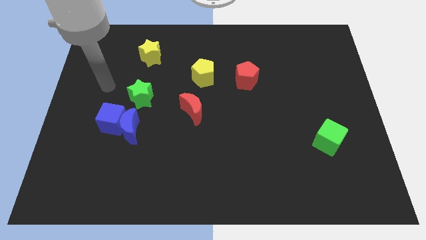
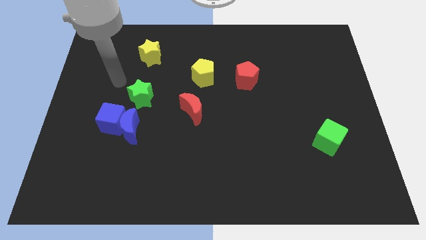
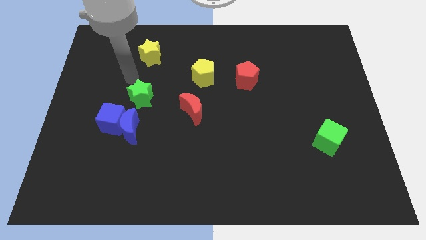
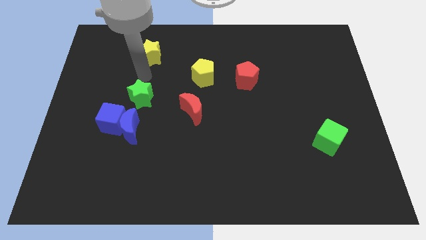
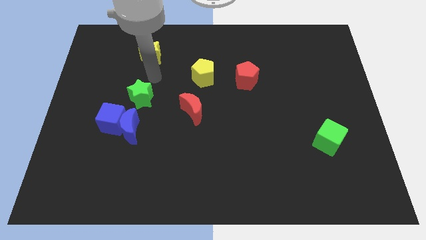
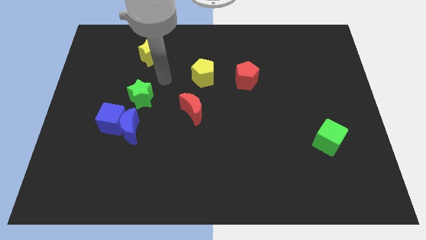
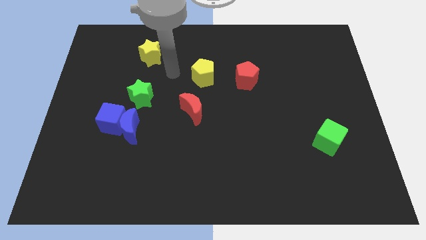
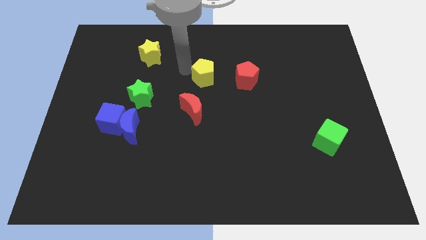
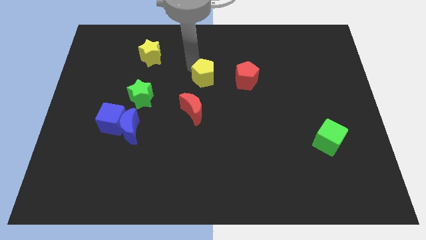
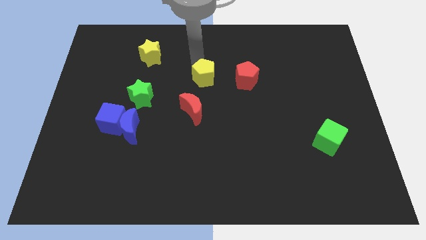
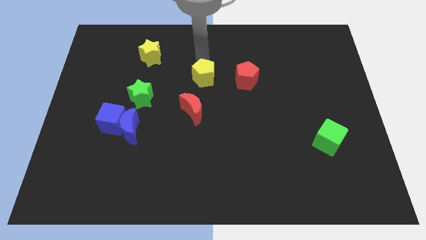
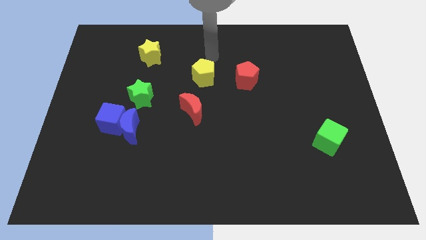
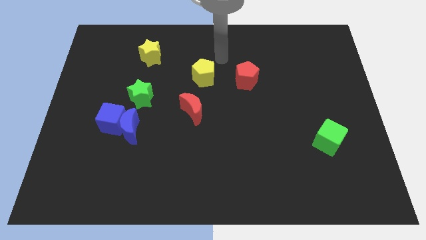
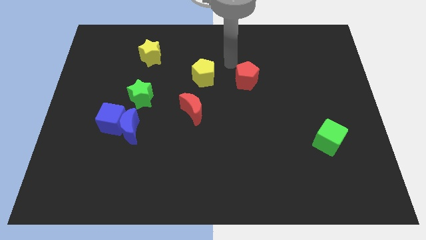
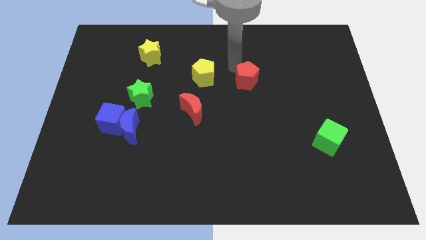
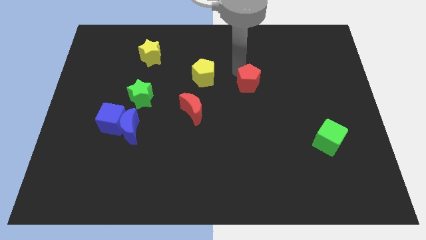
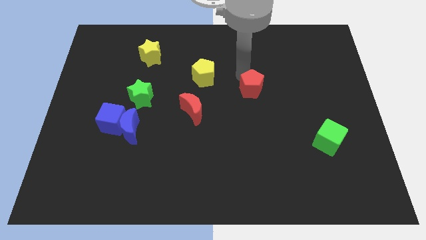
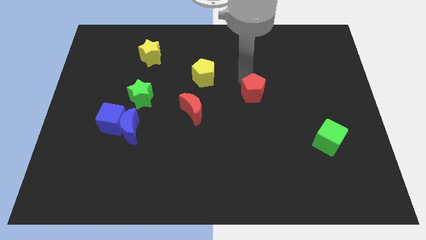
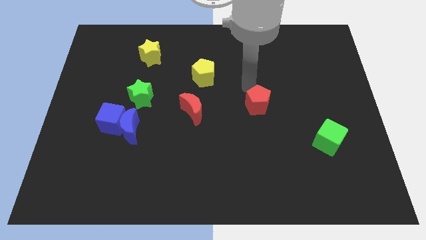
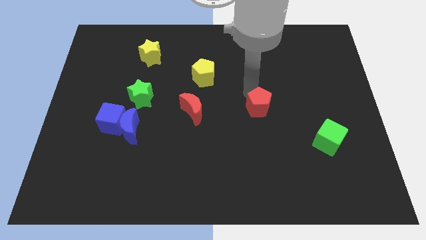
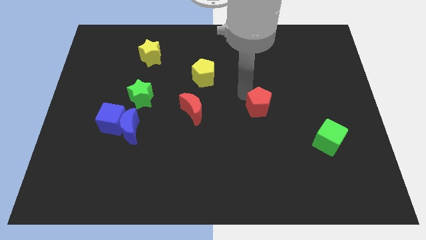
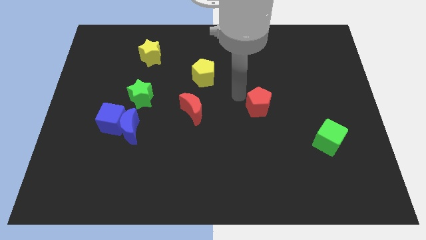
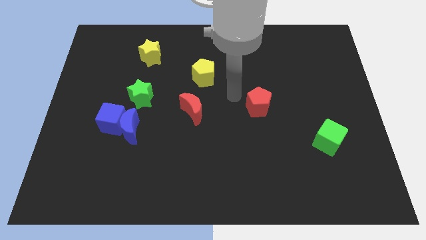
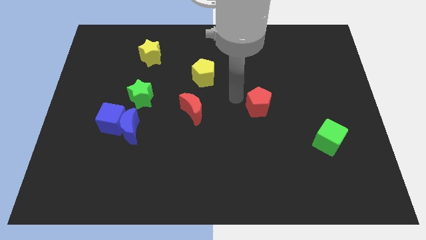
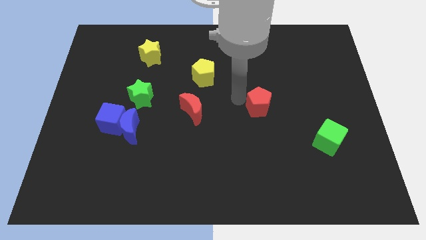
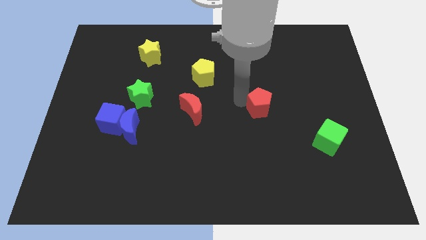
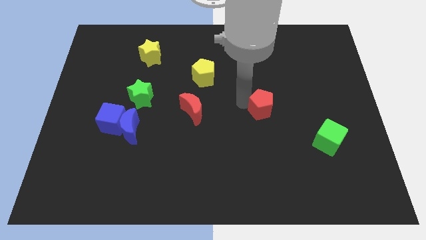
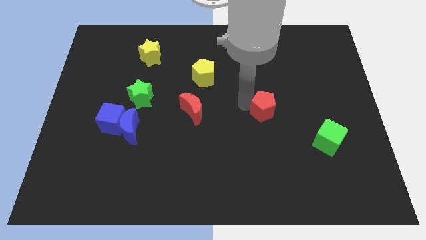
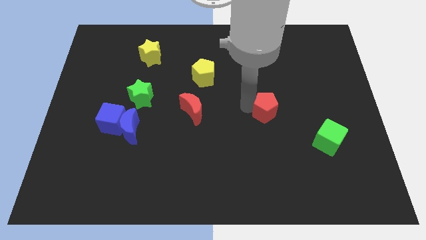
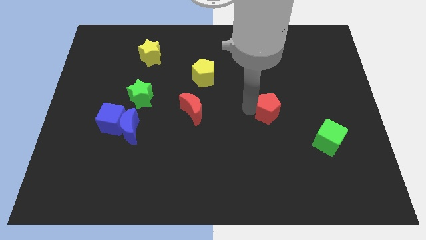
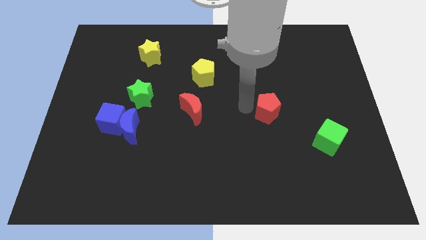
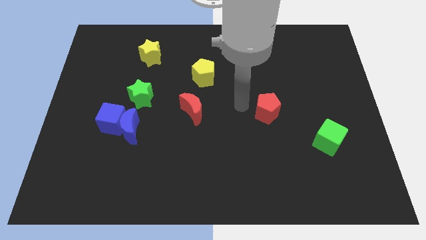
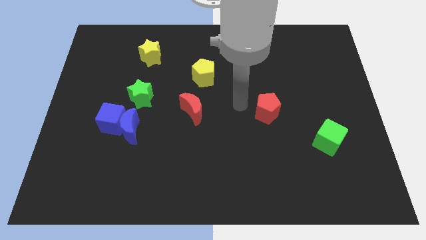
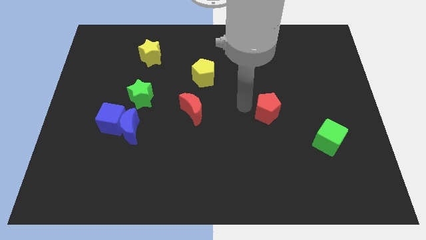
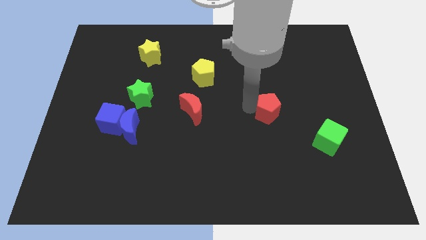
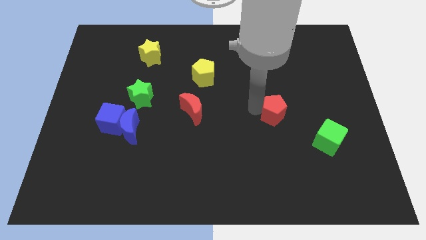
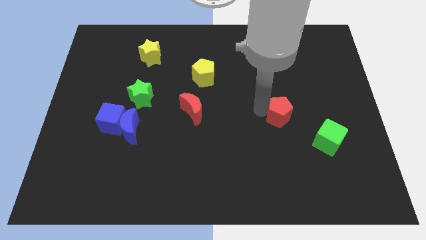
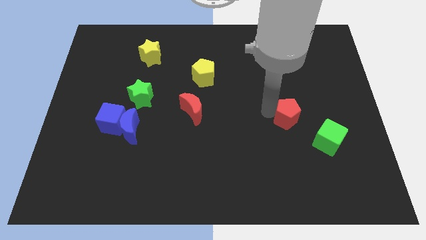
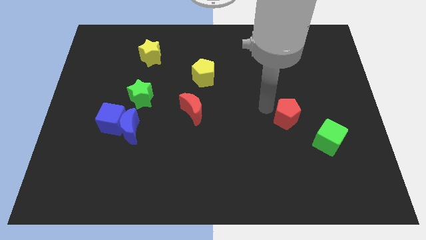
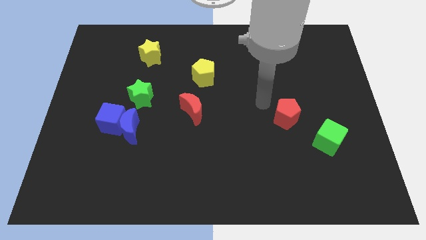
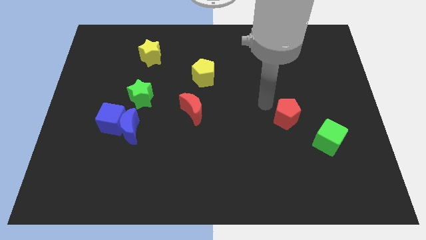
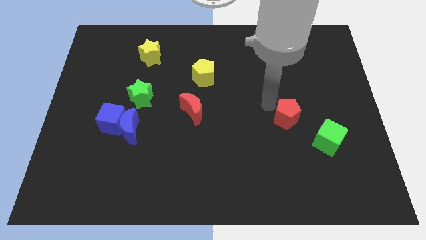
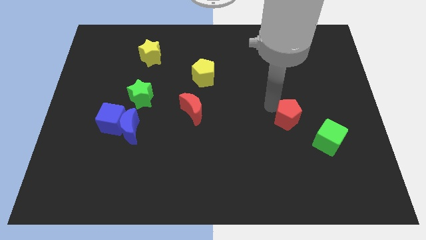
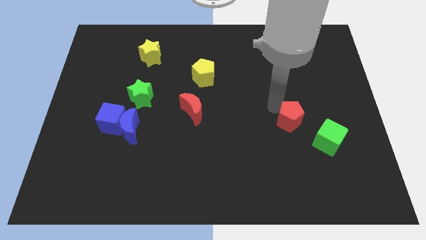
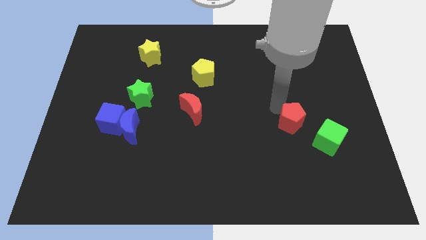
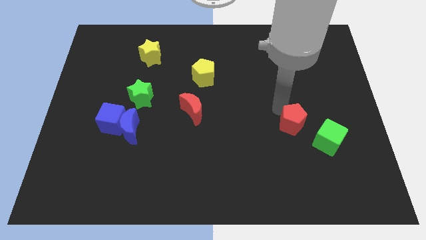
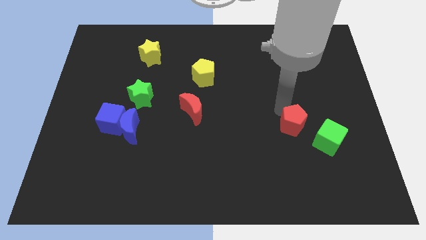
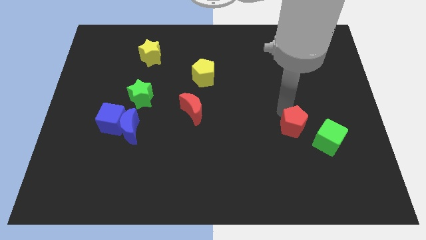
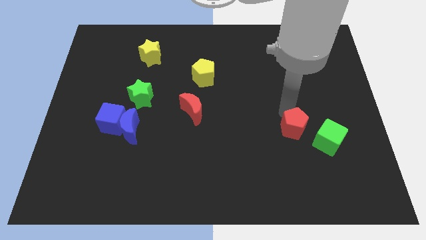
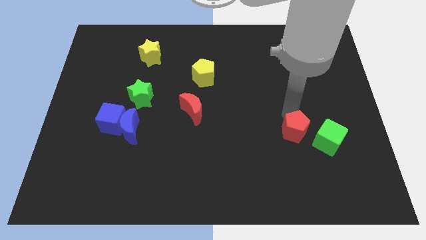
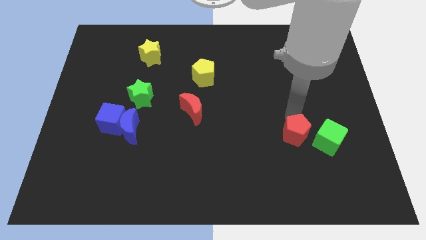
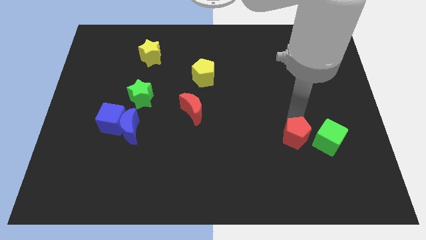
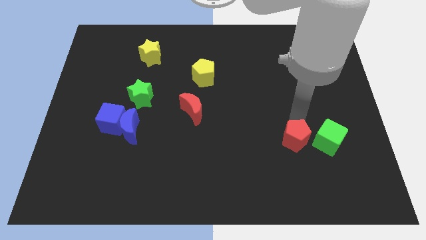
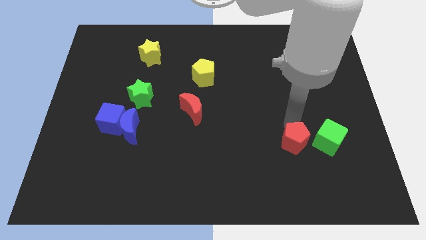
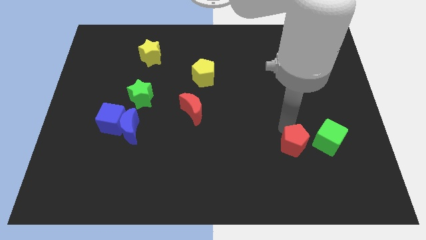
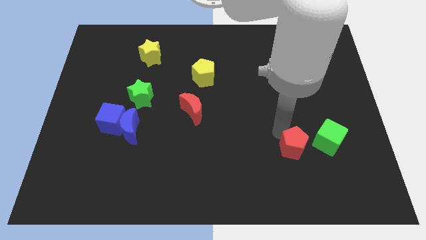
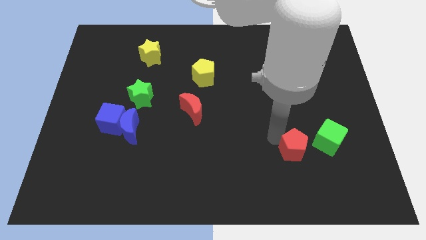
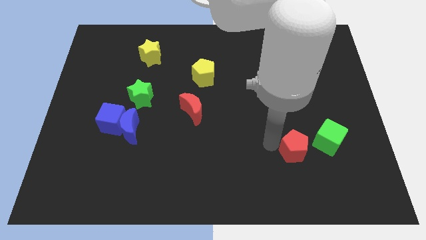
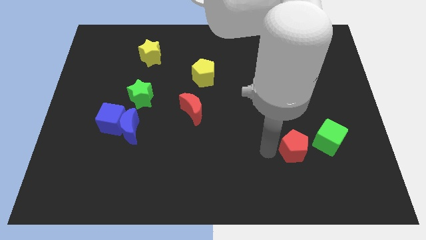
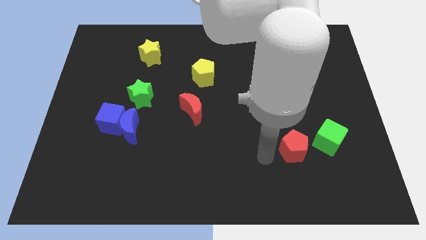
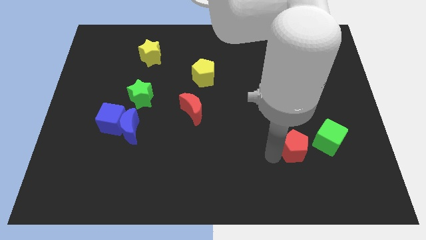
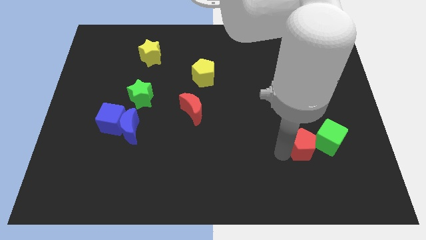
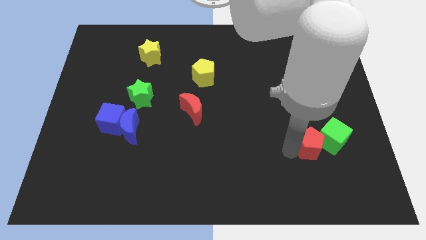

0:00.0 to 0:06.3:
put the red pentagon next to the green cube

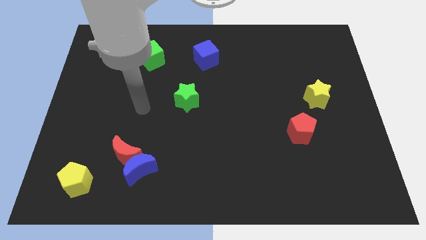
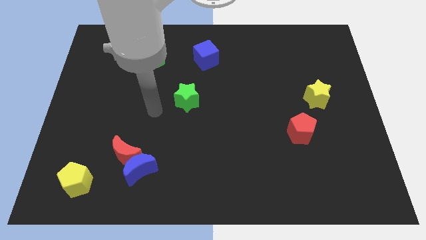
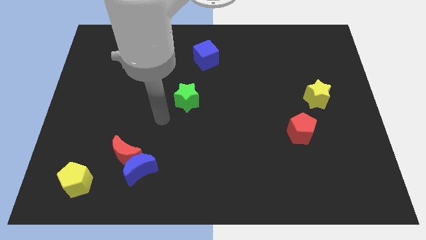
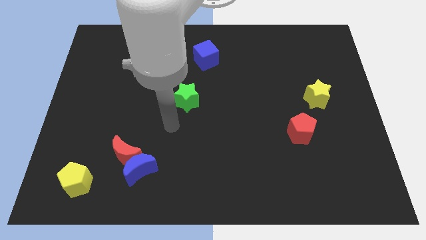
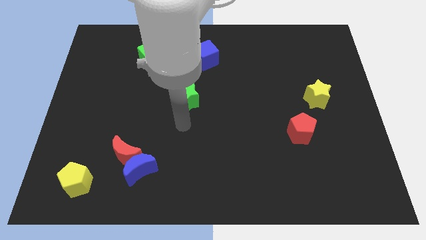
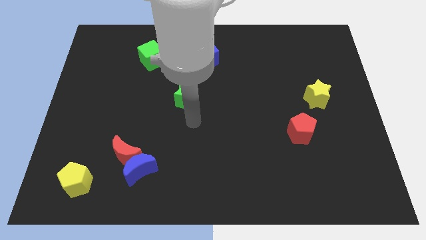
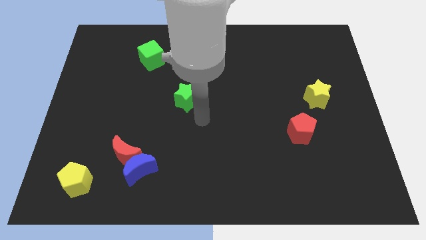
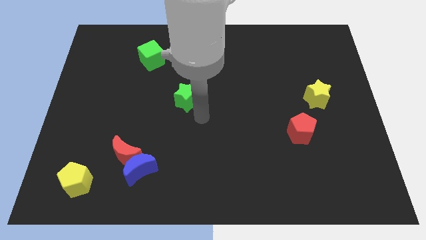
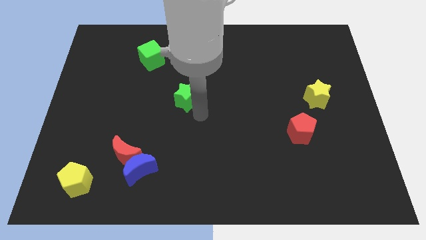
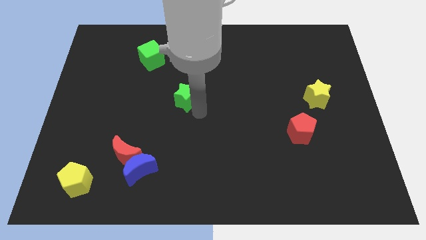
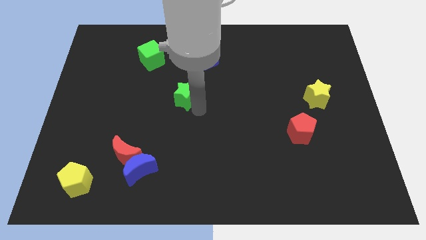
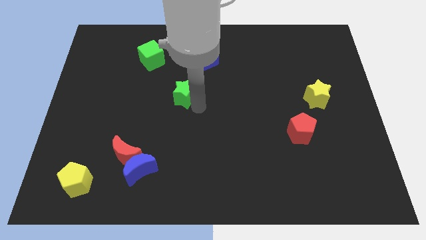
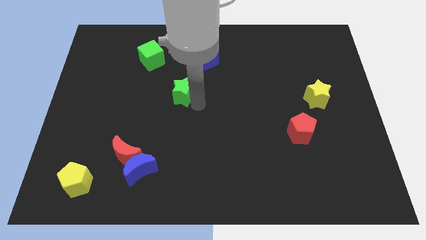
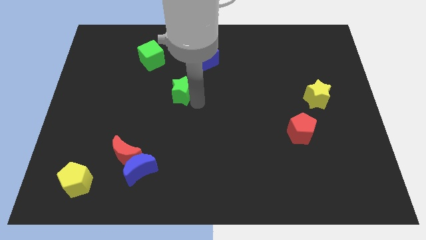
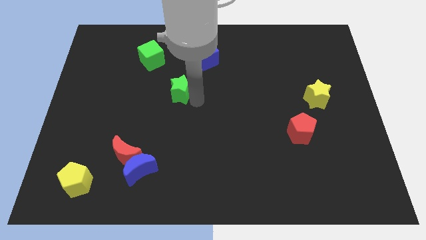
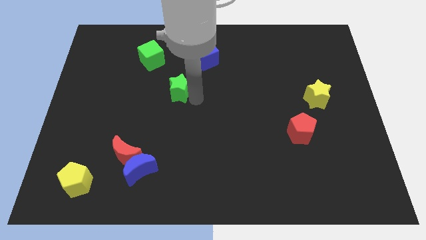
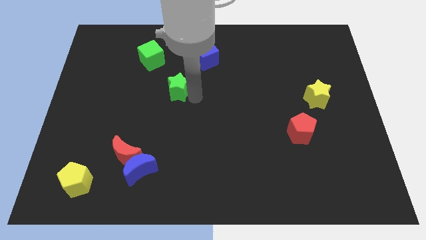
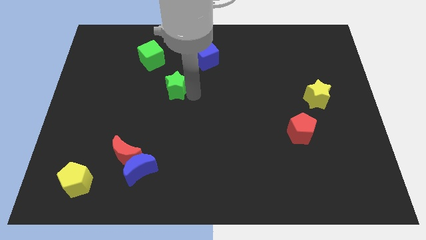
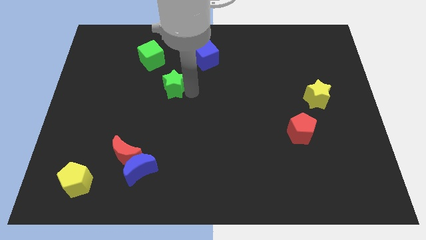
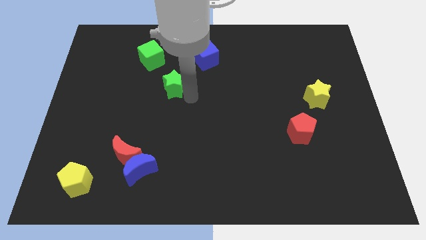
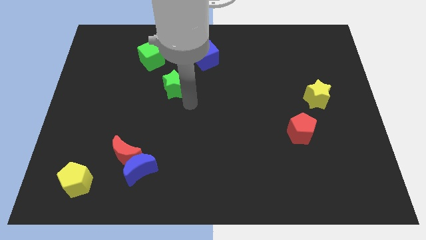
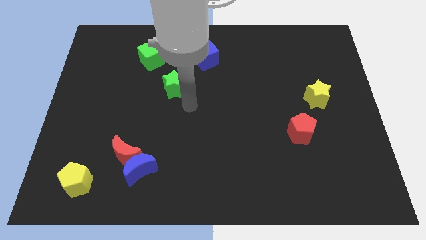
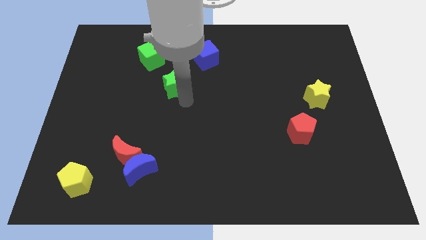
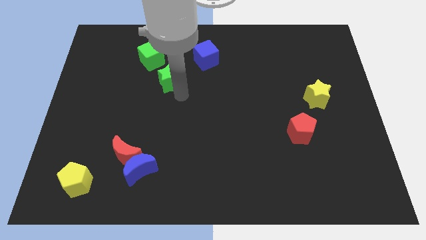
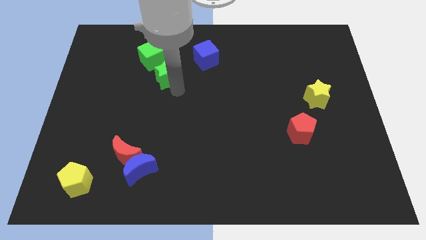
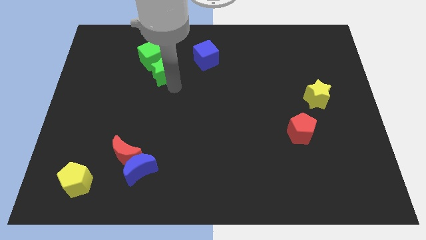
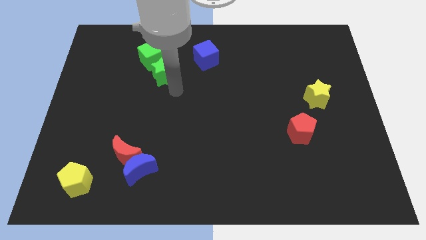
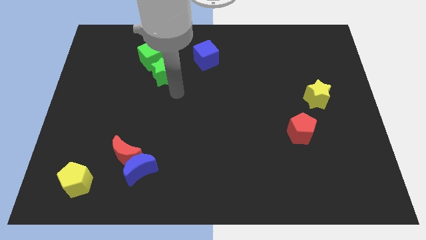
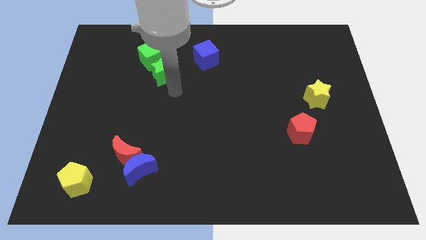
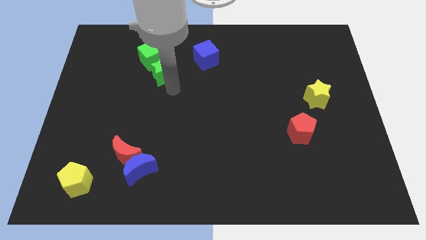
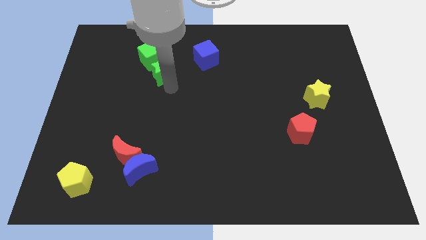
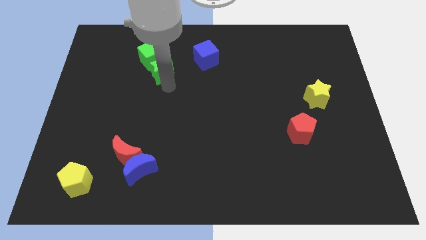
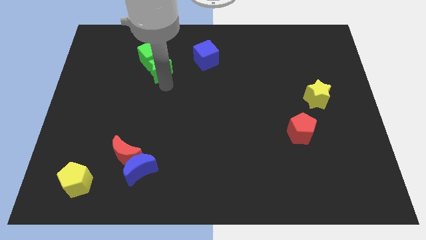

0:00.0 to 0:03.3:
push the green star close to the green cube
